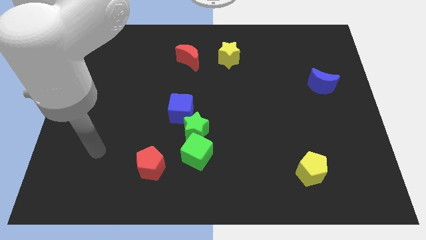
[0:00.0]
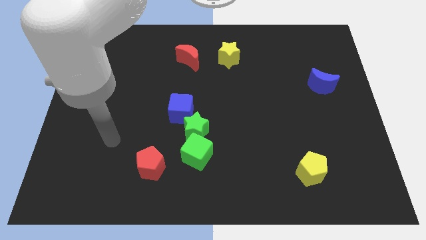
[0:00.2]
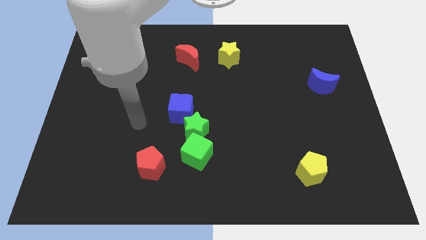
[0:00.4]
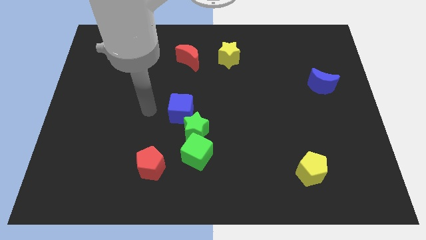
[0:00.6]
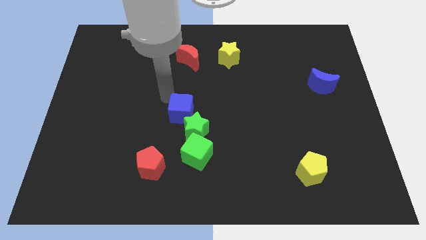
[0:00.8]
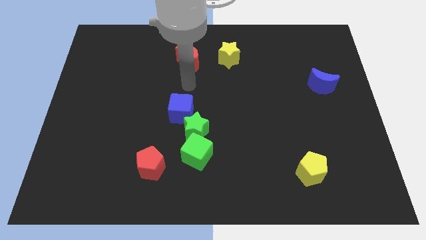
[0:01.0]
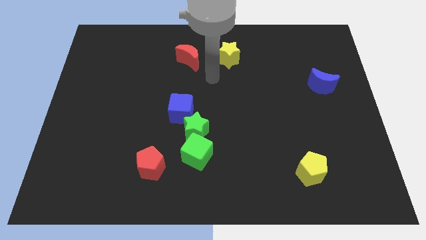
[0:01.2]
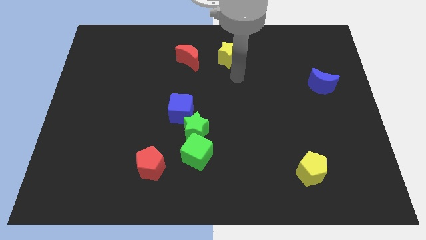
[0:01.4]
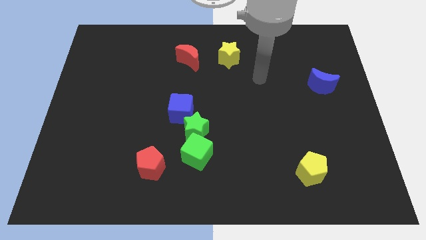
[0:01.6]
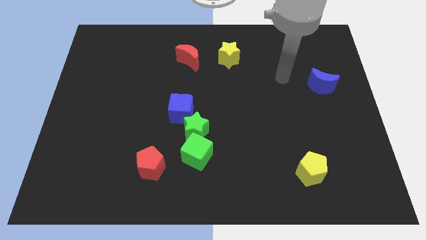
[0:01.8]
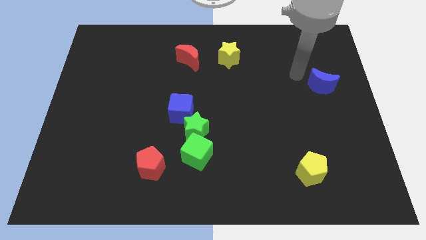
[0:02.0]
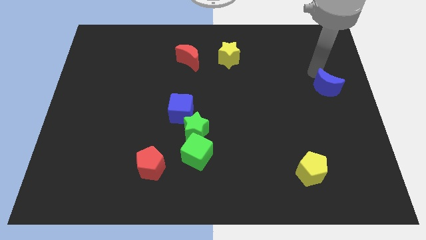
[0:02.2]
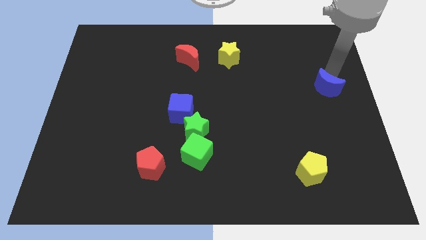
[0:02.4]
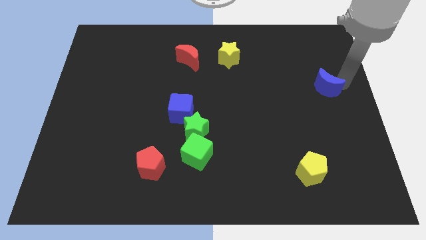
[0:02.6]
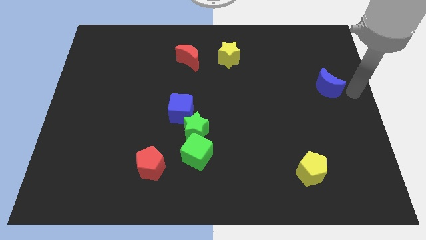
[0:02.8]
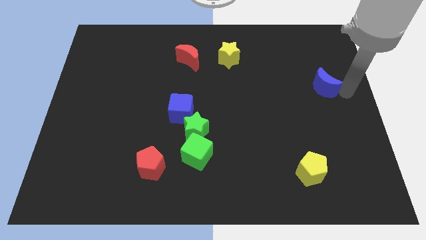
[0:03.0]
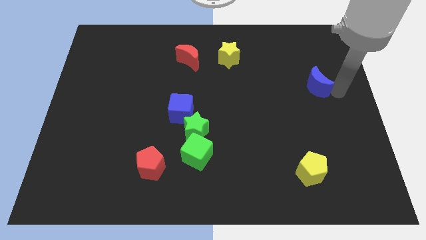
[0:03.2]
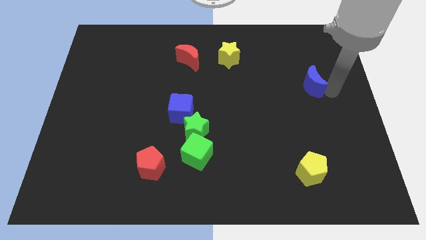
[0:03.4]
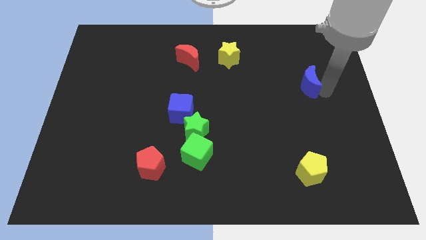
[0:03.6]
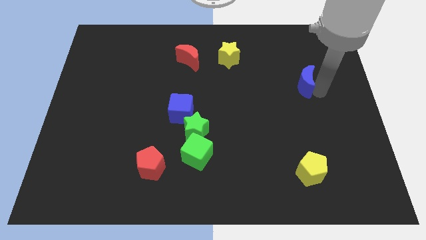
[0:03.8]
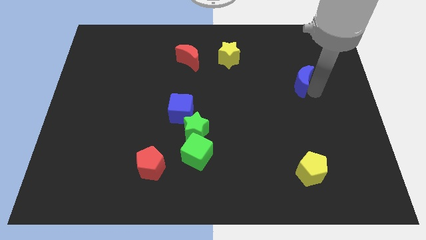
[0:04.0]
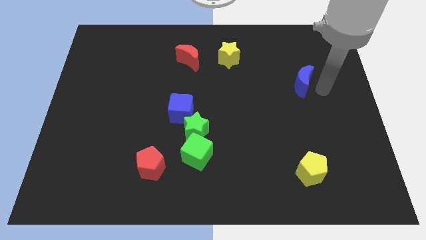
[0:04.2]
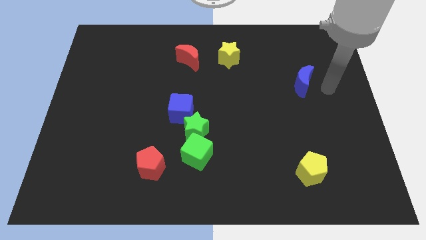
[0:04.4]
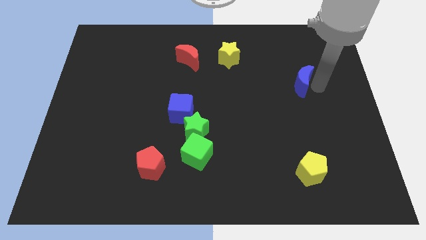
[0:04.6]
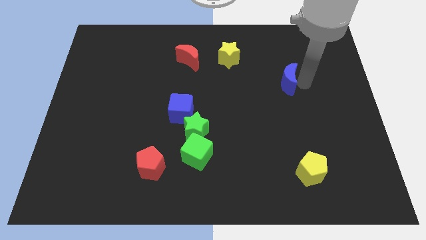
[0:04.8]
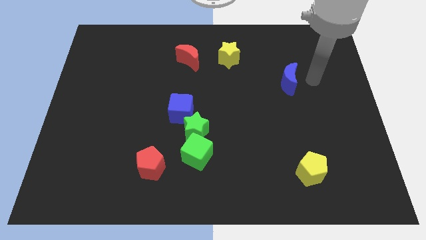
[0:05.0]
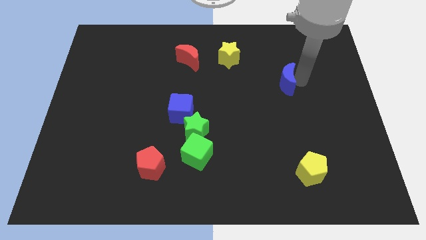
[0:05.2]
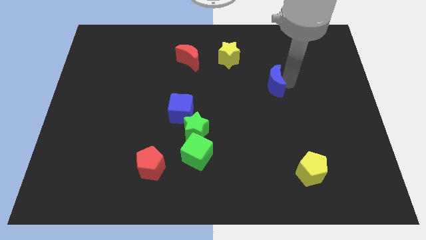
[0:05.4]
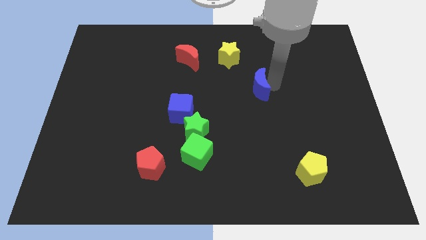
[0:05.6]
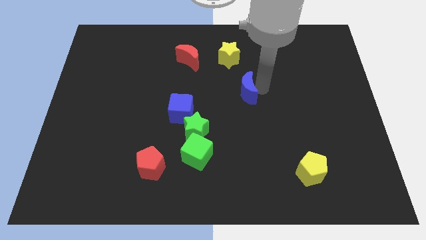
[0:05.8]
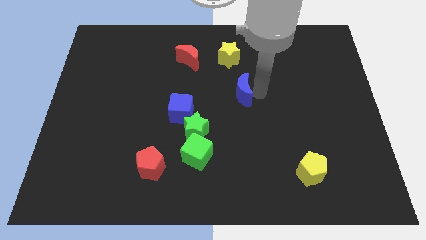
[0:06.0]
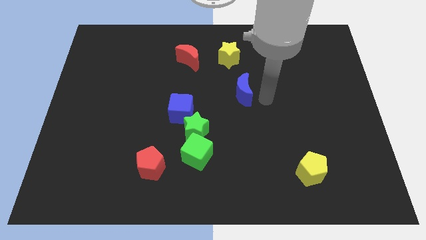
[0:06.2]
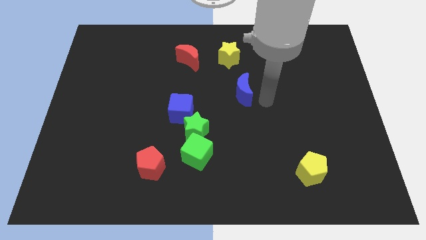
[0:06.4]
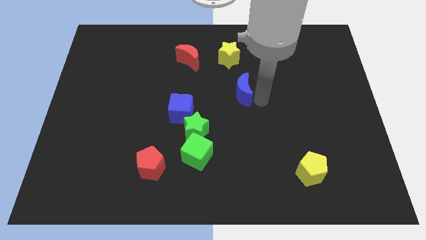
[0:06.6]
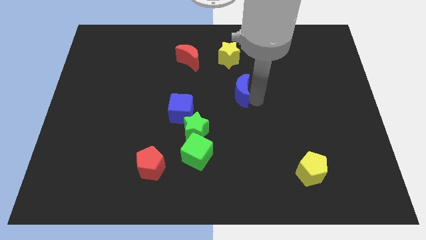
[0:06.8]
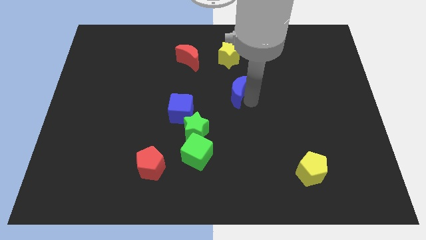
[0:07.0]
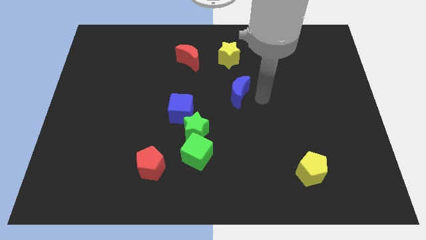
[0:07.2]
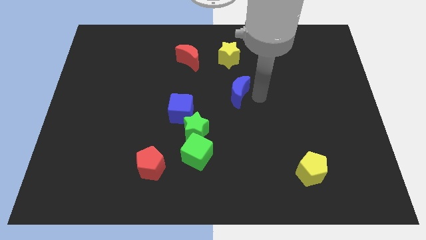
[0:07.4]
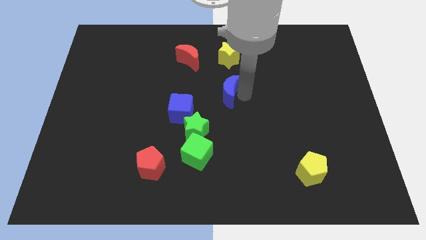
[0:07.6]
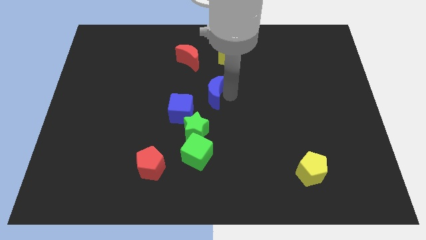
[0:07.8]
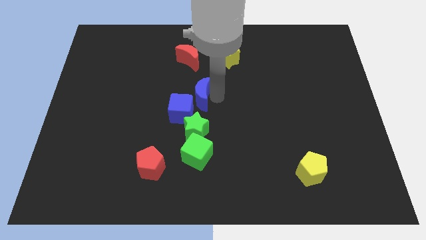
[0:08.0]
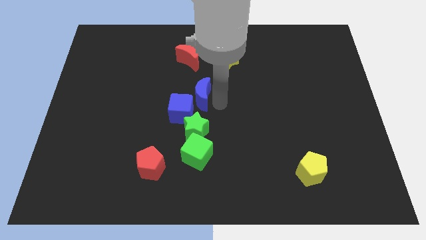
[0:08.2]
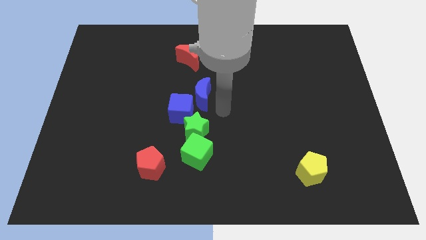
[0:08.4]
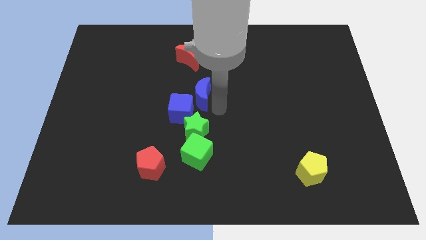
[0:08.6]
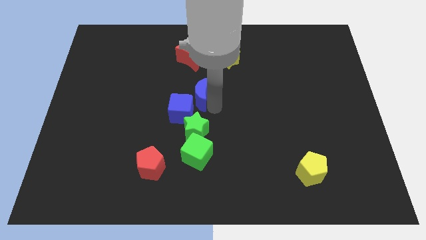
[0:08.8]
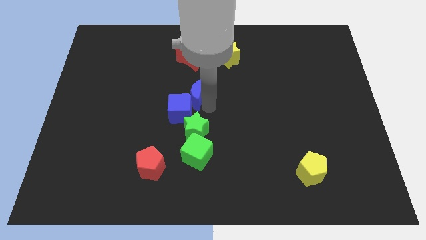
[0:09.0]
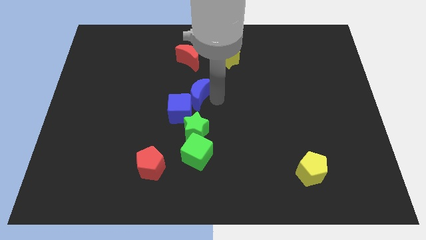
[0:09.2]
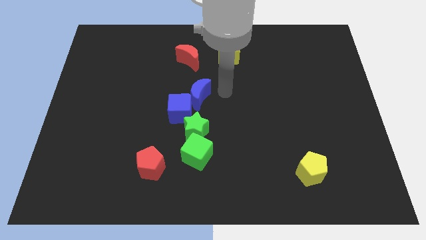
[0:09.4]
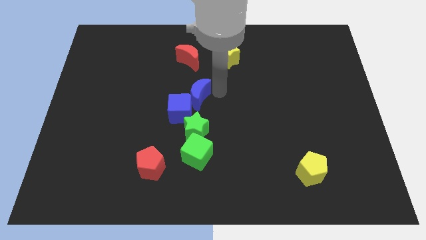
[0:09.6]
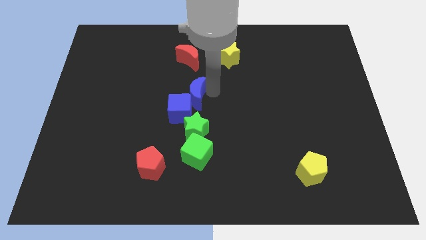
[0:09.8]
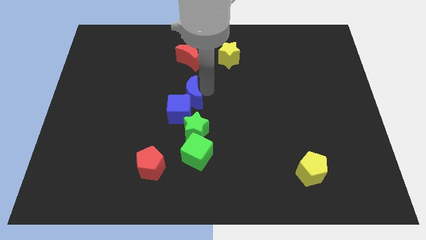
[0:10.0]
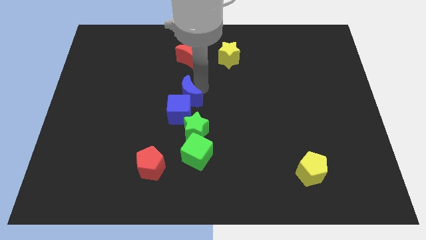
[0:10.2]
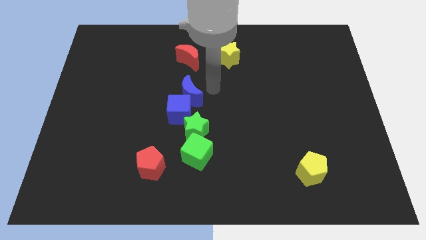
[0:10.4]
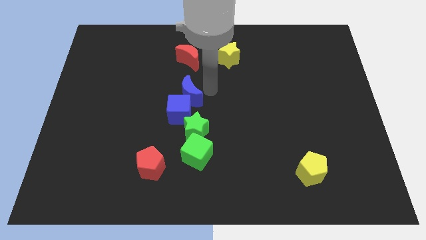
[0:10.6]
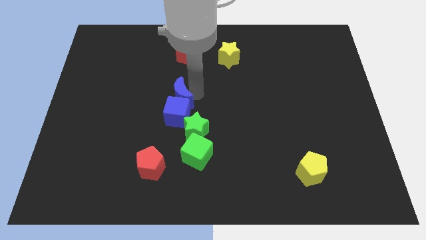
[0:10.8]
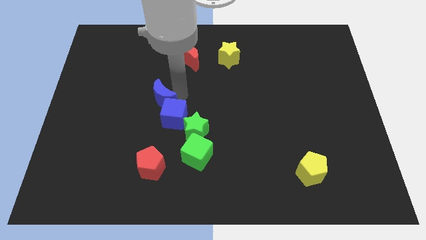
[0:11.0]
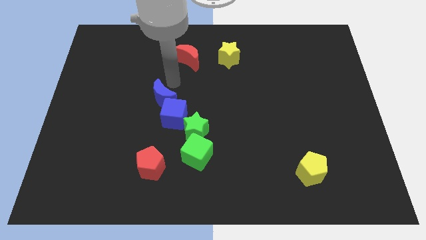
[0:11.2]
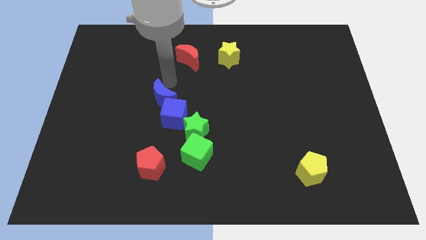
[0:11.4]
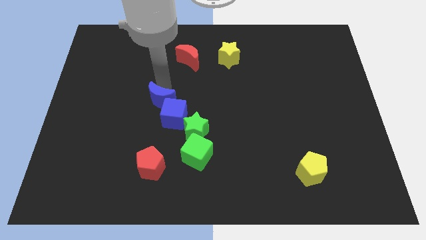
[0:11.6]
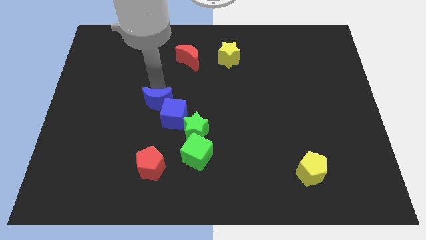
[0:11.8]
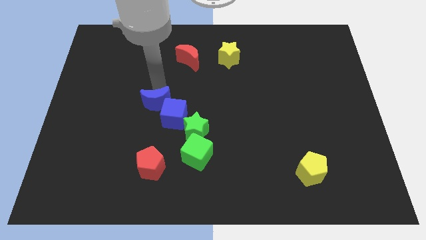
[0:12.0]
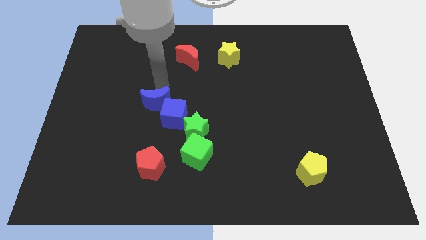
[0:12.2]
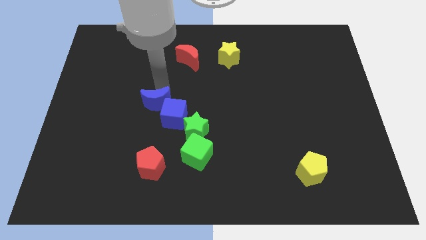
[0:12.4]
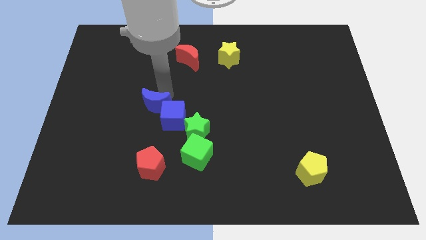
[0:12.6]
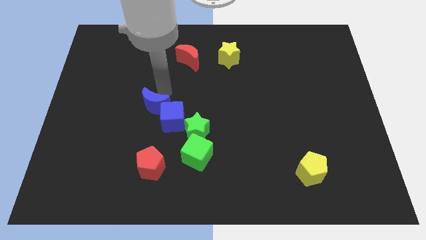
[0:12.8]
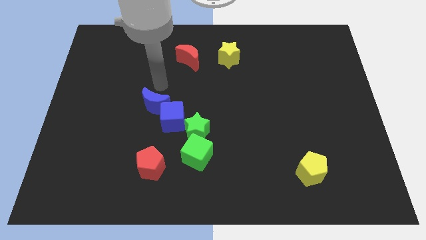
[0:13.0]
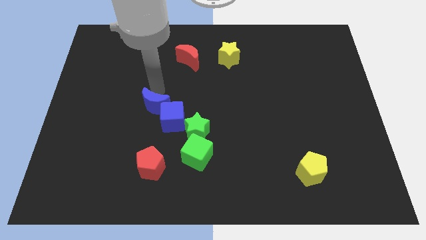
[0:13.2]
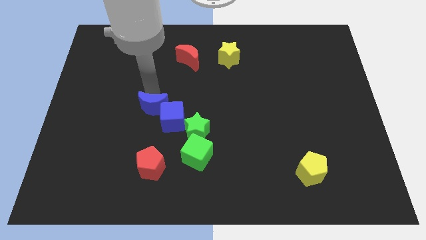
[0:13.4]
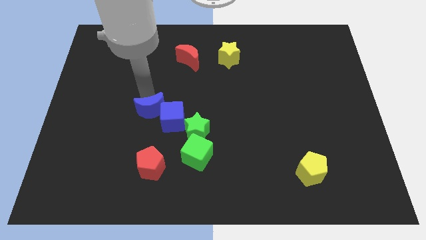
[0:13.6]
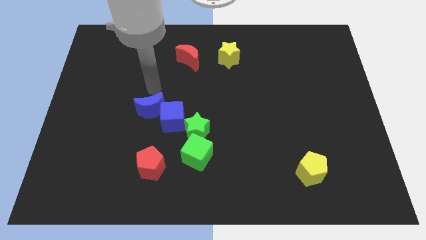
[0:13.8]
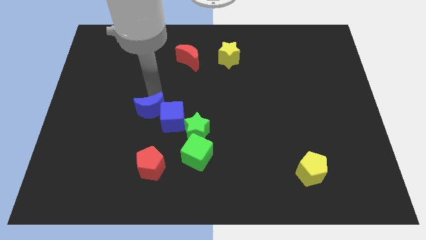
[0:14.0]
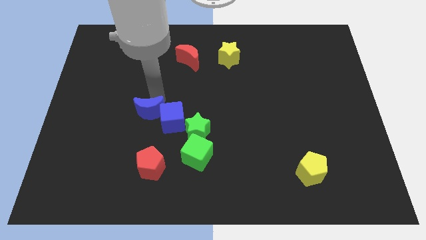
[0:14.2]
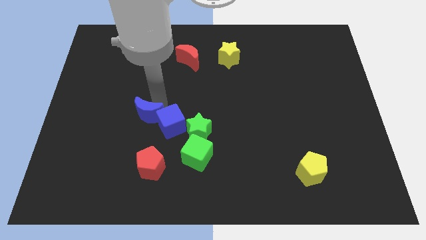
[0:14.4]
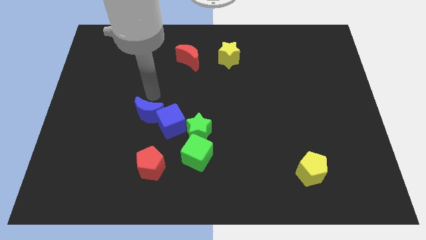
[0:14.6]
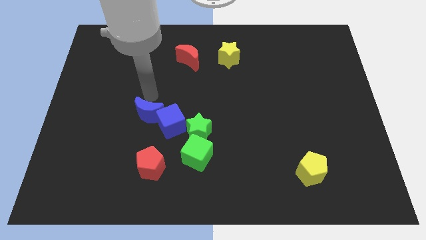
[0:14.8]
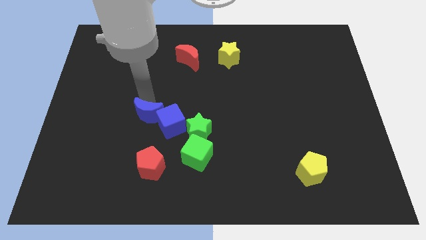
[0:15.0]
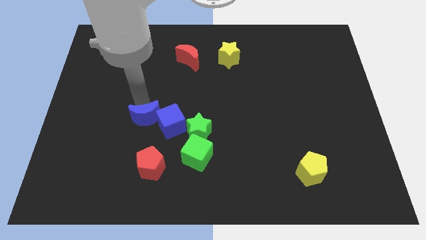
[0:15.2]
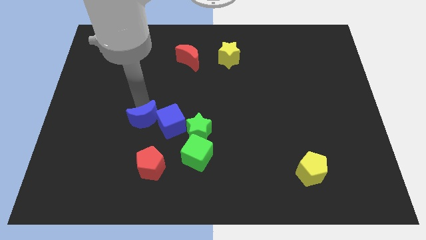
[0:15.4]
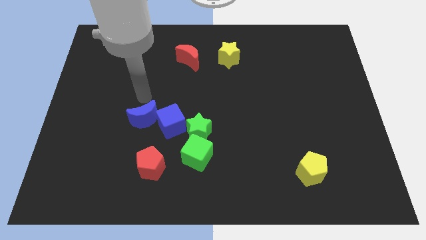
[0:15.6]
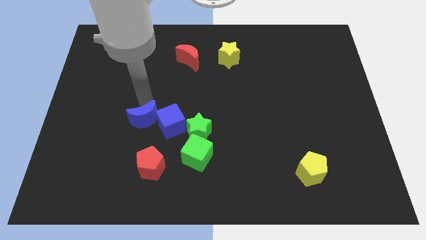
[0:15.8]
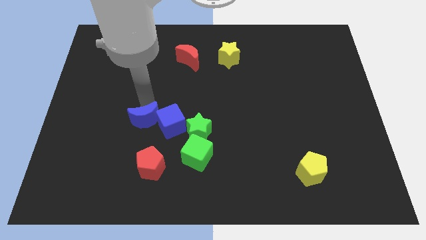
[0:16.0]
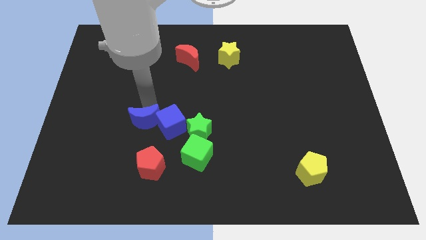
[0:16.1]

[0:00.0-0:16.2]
put the blue moon to the bottom left side of the blue cube
